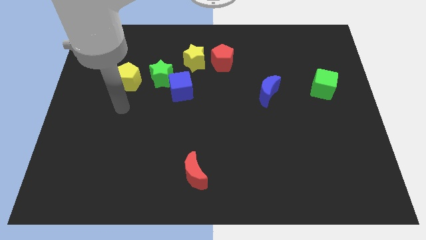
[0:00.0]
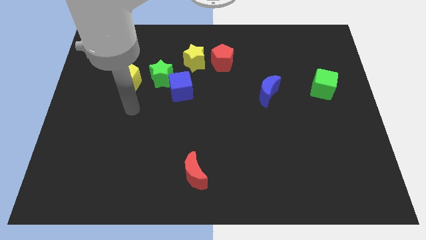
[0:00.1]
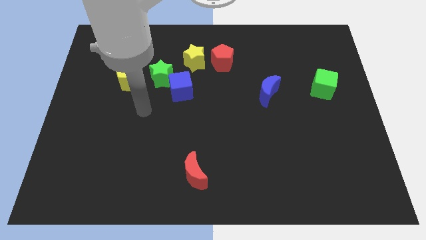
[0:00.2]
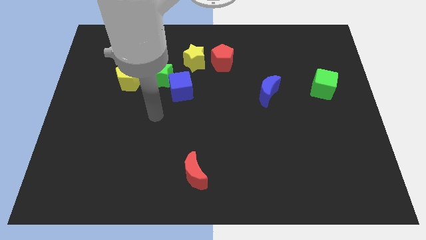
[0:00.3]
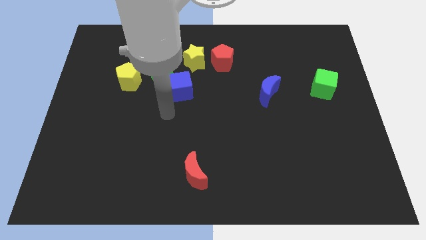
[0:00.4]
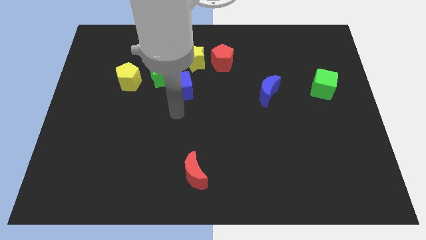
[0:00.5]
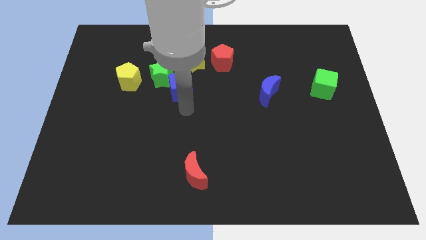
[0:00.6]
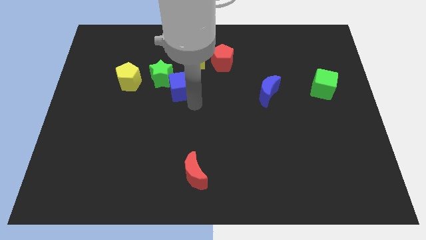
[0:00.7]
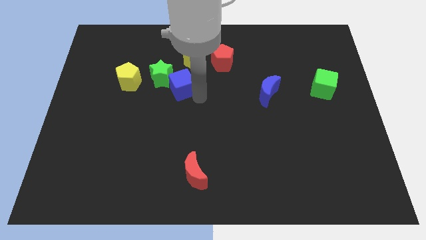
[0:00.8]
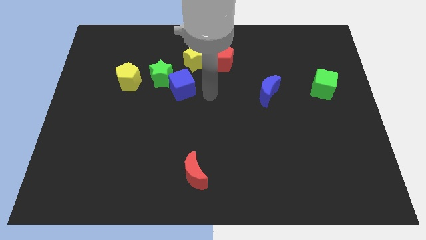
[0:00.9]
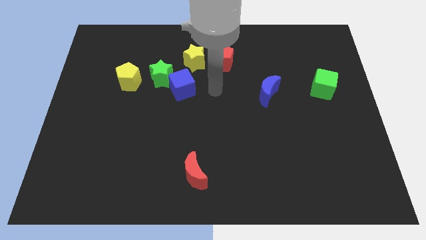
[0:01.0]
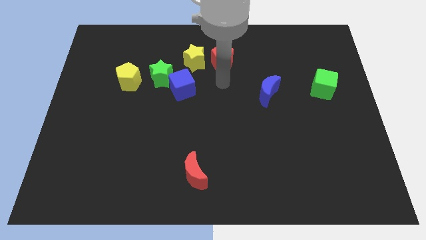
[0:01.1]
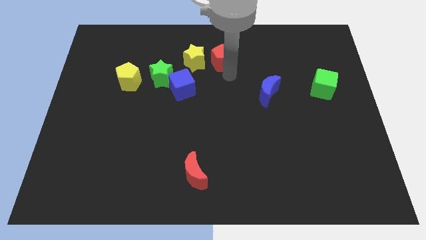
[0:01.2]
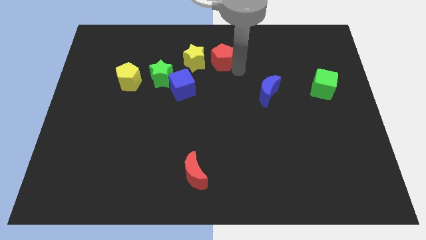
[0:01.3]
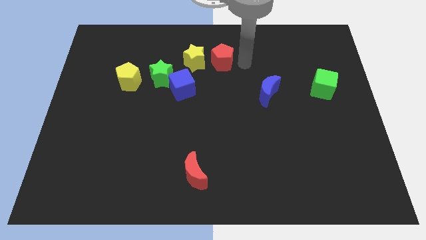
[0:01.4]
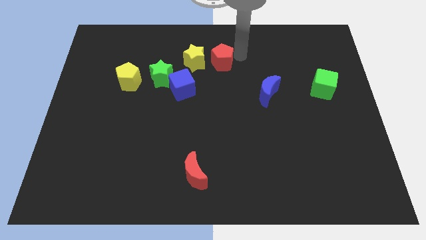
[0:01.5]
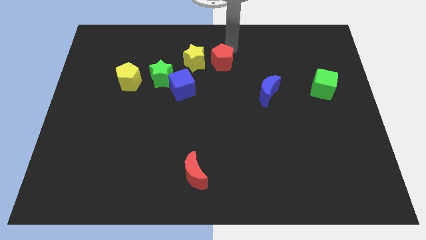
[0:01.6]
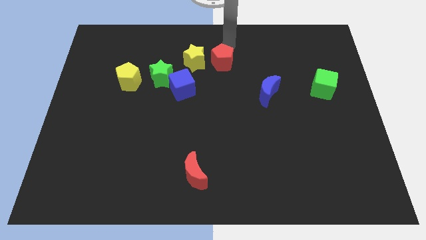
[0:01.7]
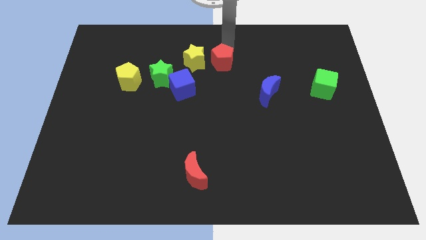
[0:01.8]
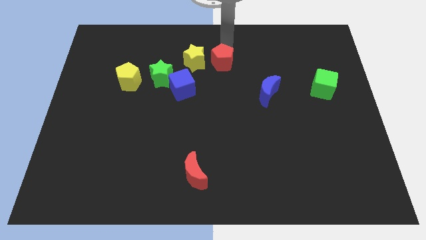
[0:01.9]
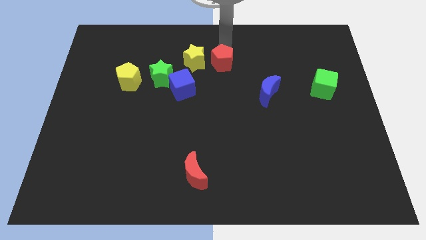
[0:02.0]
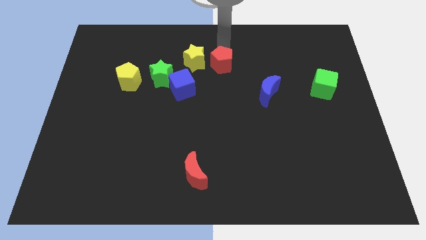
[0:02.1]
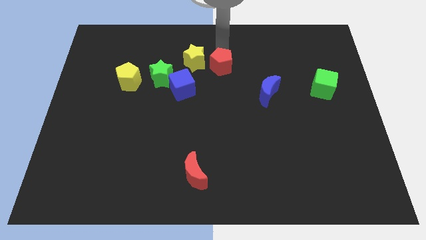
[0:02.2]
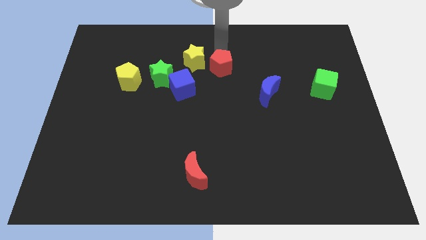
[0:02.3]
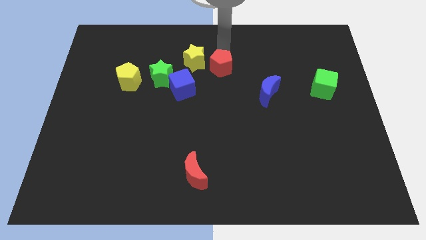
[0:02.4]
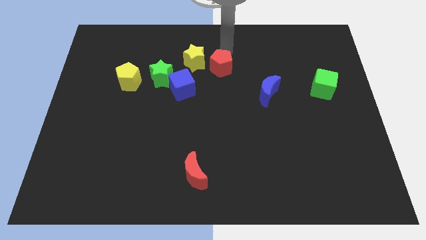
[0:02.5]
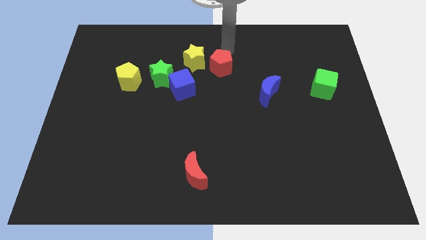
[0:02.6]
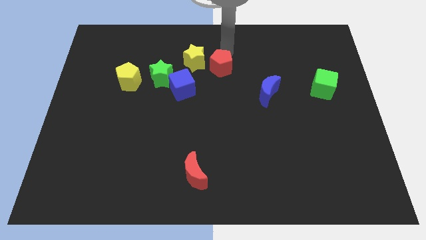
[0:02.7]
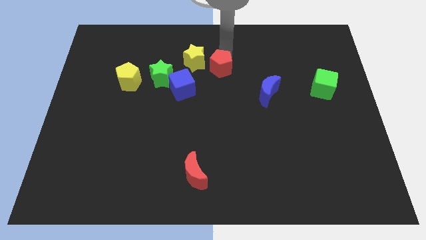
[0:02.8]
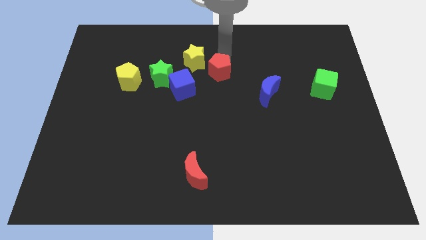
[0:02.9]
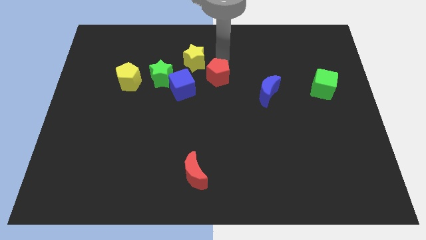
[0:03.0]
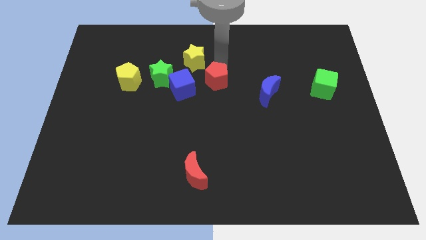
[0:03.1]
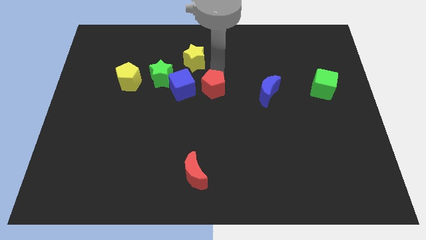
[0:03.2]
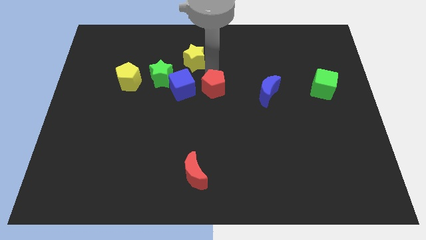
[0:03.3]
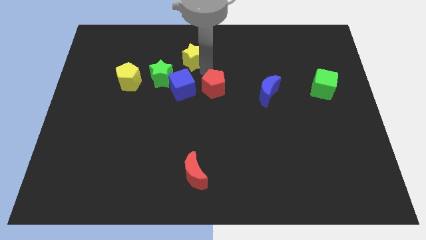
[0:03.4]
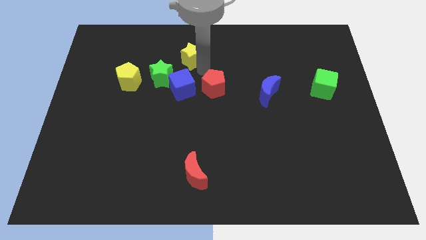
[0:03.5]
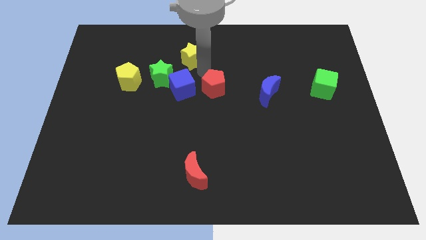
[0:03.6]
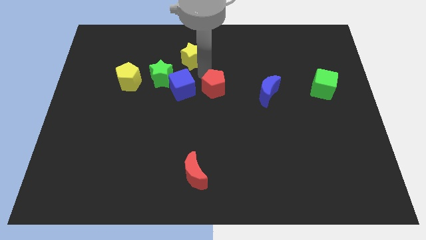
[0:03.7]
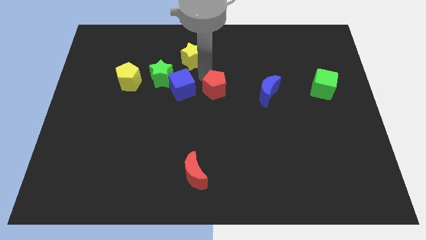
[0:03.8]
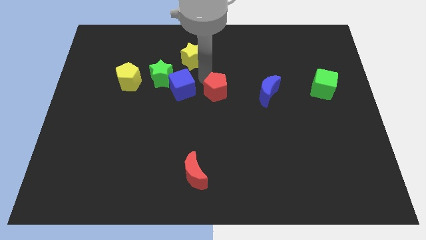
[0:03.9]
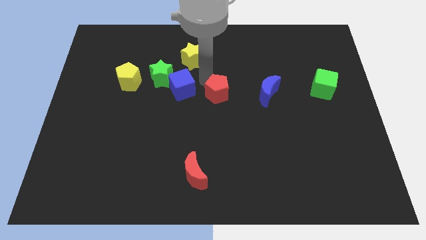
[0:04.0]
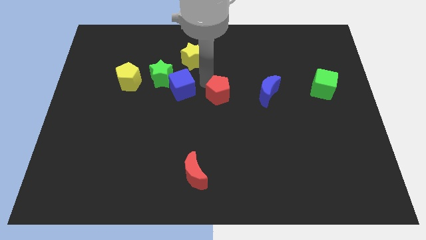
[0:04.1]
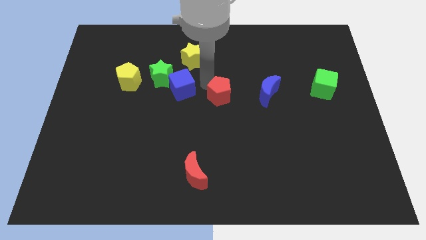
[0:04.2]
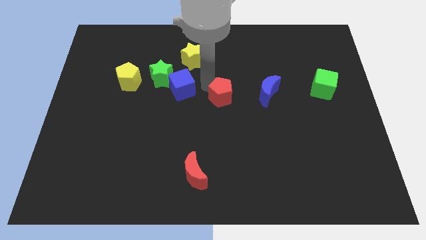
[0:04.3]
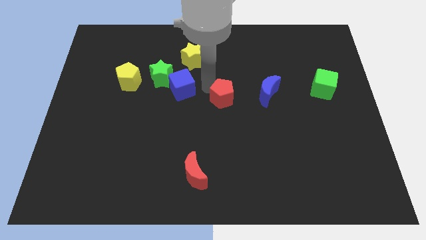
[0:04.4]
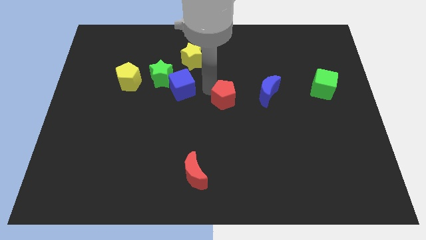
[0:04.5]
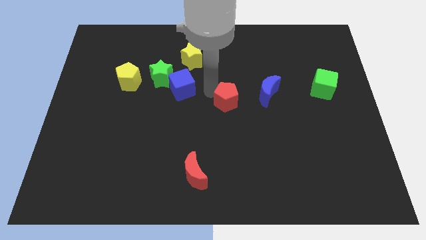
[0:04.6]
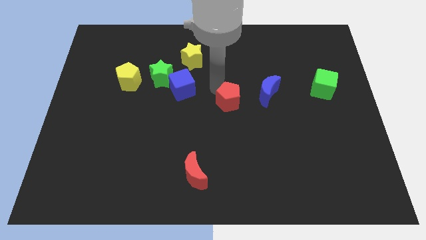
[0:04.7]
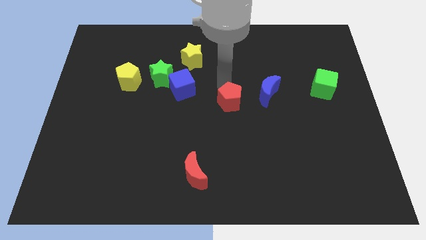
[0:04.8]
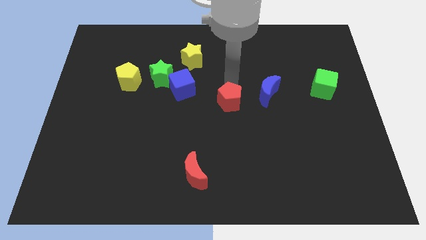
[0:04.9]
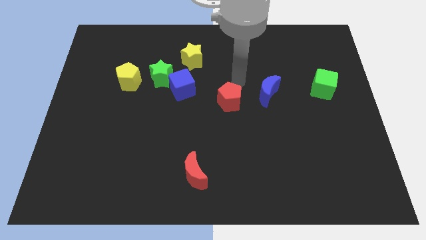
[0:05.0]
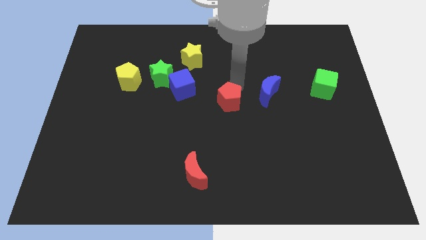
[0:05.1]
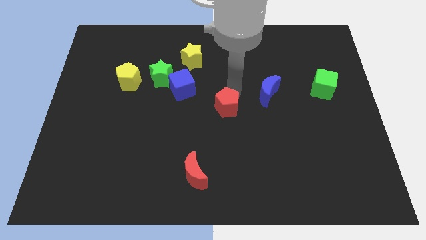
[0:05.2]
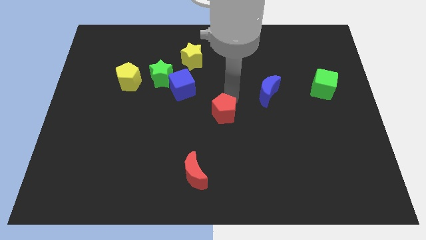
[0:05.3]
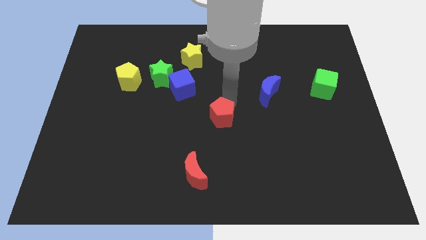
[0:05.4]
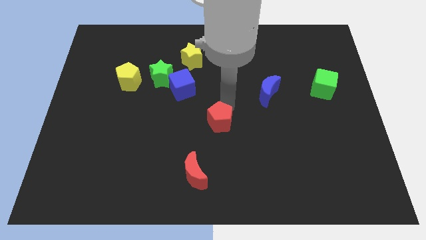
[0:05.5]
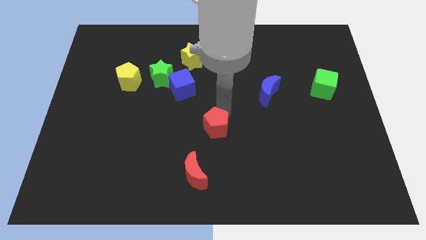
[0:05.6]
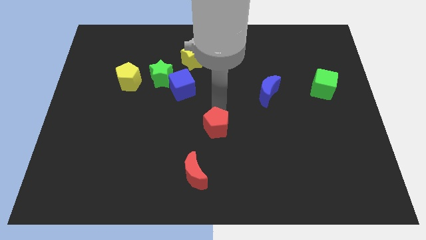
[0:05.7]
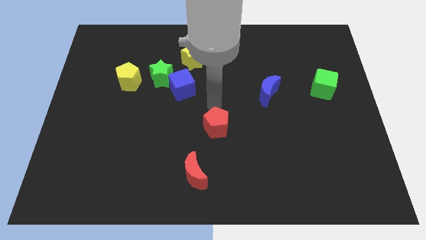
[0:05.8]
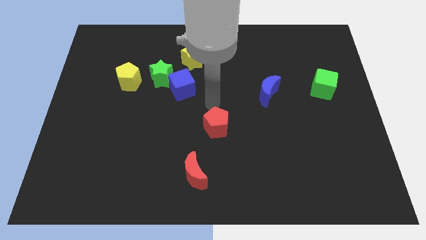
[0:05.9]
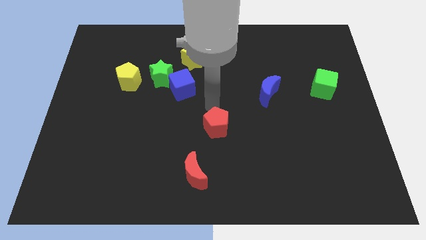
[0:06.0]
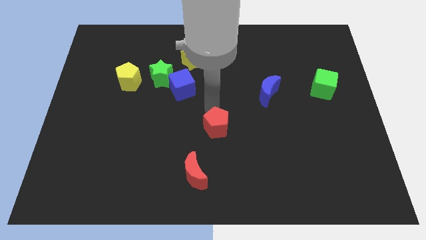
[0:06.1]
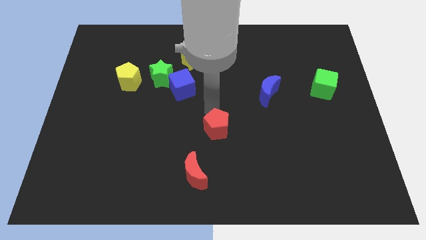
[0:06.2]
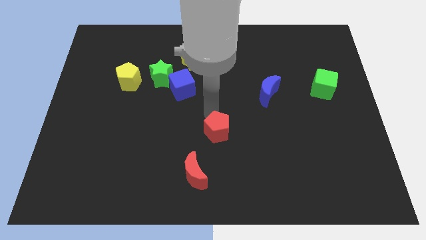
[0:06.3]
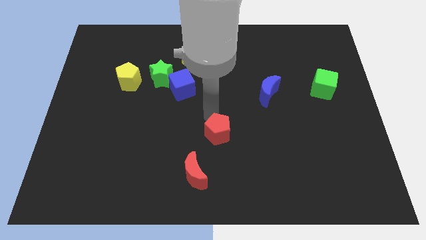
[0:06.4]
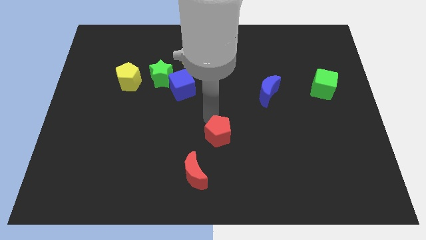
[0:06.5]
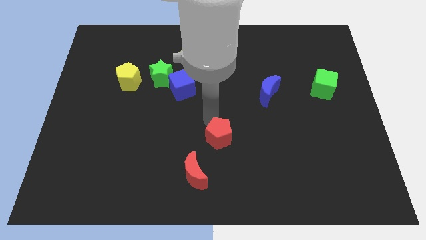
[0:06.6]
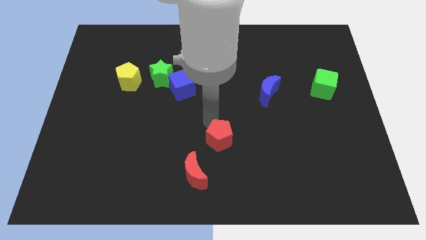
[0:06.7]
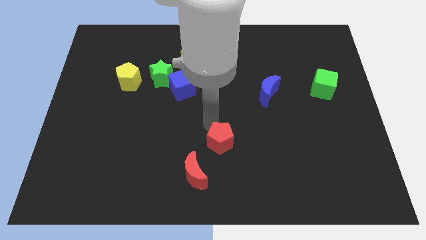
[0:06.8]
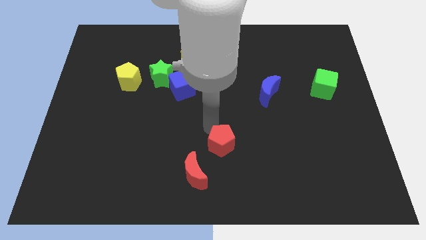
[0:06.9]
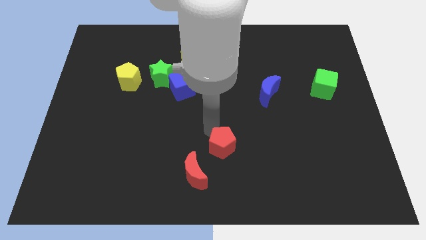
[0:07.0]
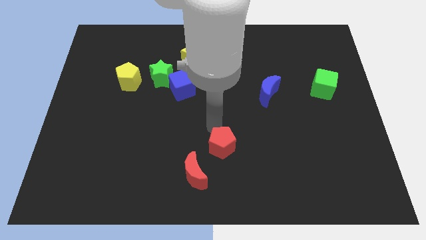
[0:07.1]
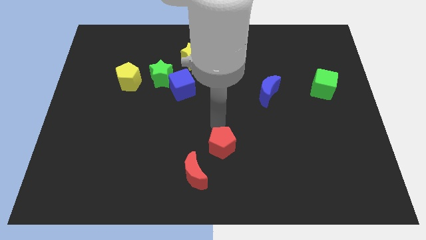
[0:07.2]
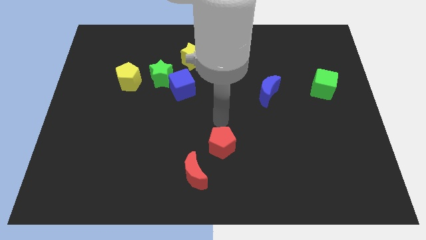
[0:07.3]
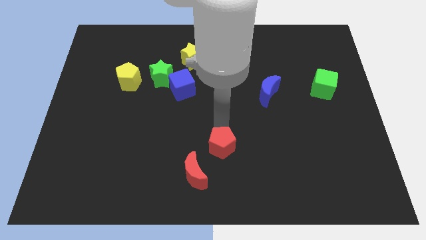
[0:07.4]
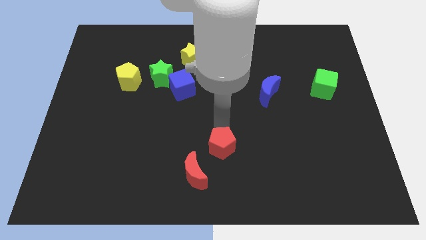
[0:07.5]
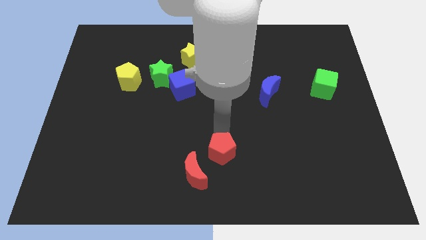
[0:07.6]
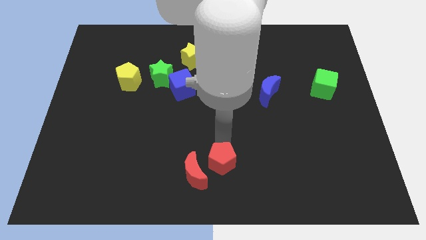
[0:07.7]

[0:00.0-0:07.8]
move the red pentagon to the bottom side
